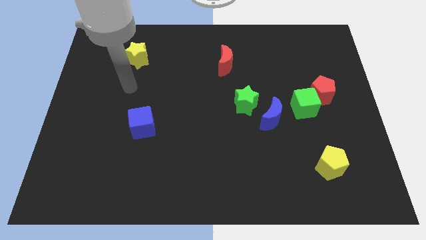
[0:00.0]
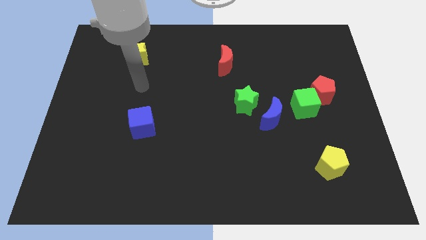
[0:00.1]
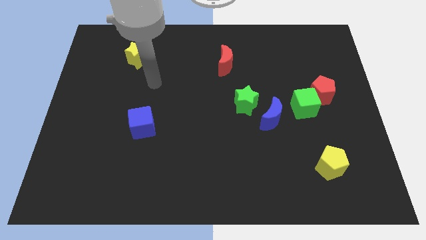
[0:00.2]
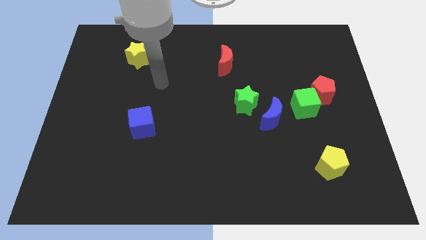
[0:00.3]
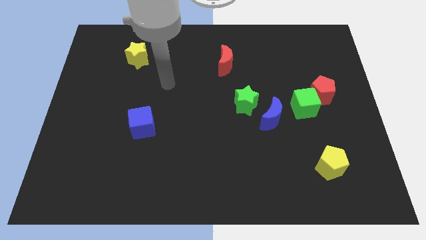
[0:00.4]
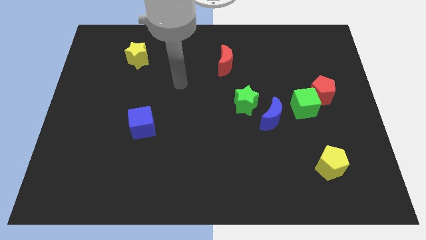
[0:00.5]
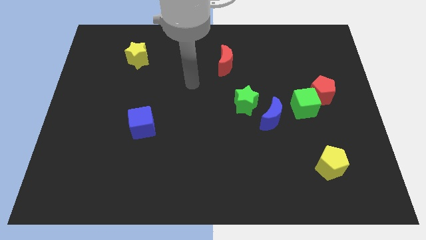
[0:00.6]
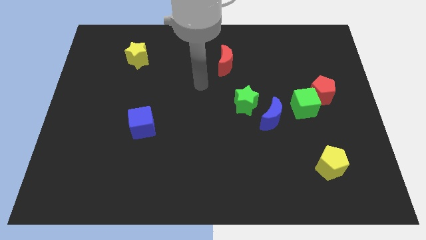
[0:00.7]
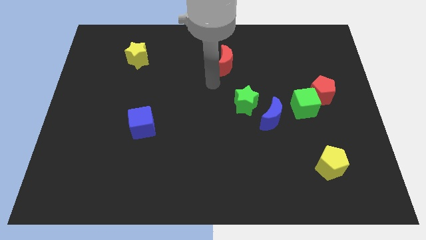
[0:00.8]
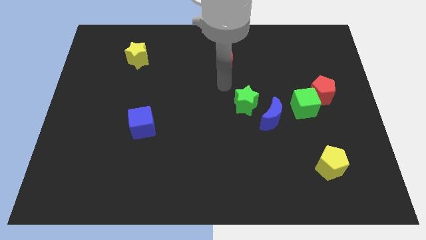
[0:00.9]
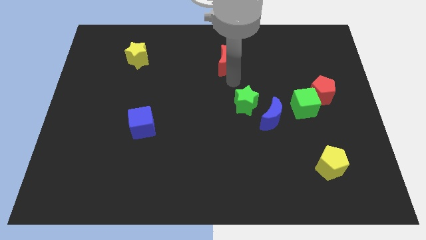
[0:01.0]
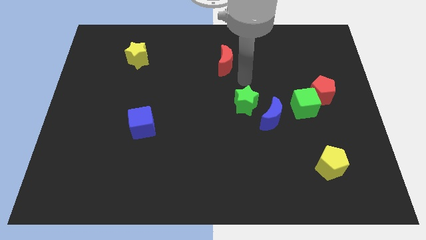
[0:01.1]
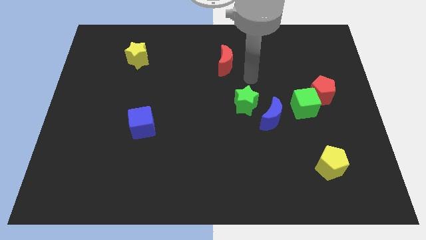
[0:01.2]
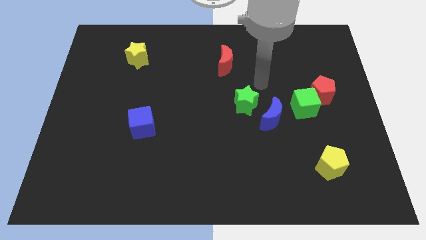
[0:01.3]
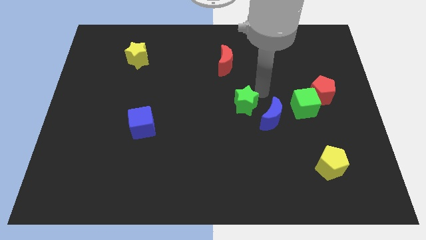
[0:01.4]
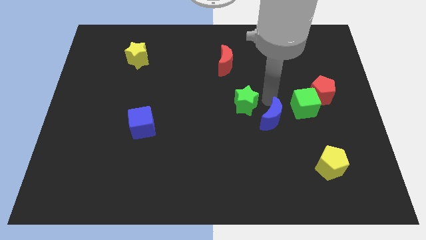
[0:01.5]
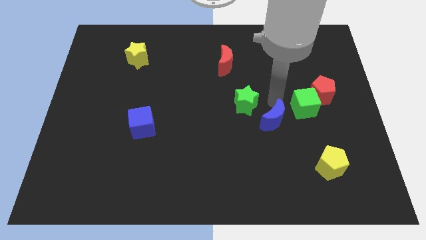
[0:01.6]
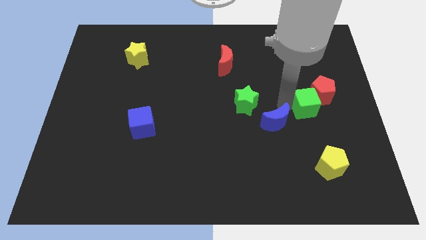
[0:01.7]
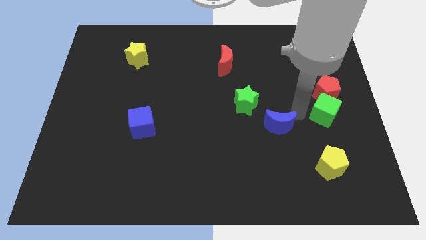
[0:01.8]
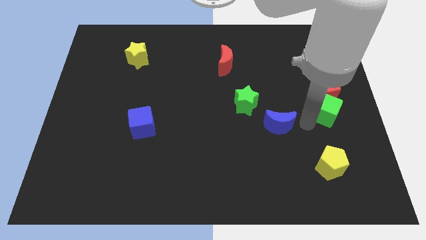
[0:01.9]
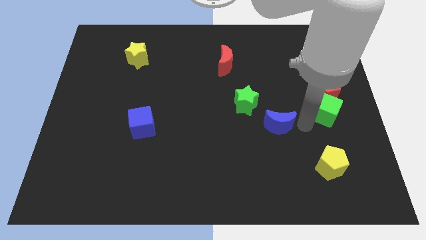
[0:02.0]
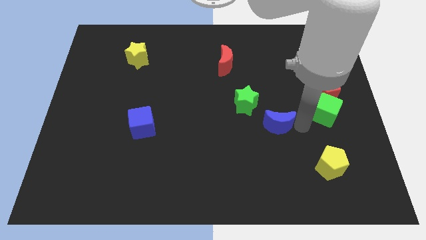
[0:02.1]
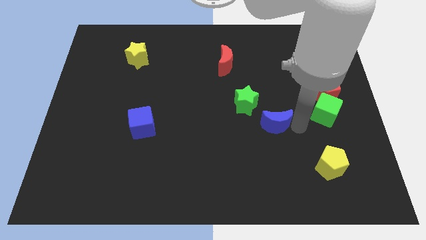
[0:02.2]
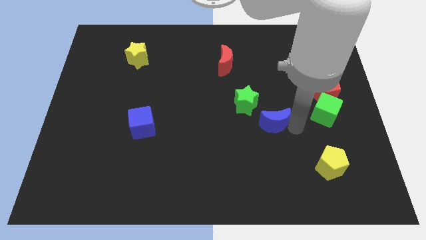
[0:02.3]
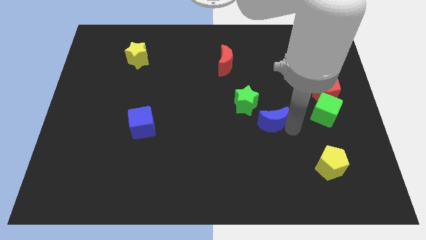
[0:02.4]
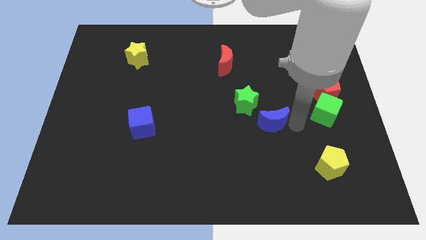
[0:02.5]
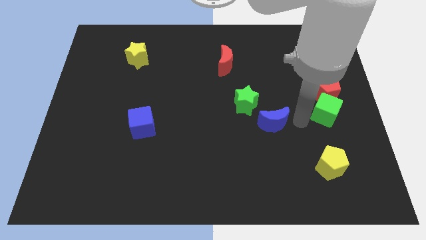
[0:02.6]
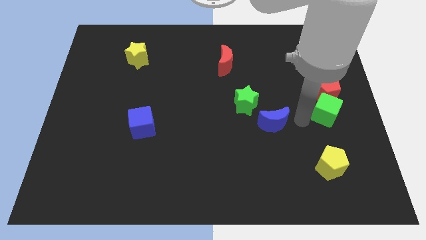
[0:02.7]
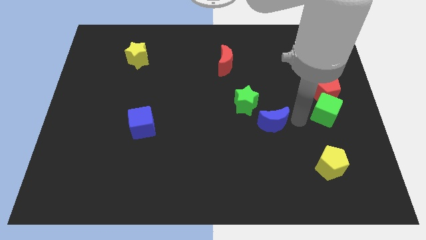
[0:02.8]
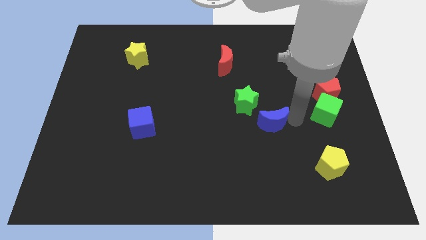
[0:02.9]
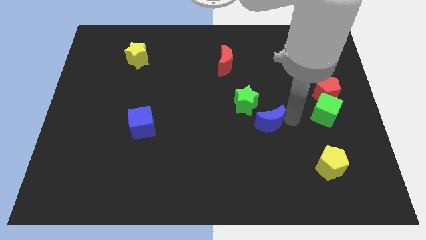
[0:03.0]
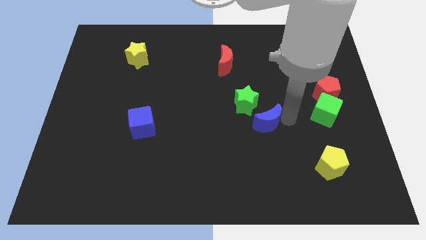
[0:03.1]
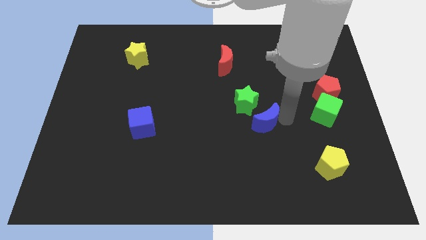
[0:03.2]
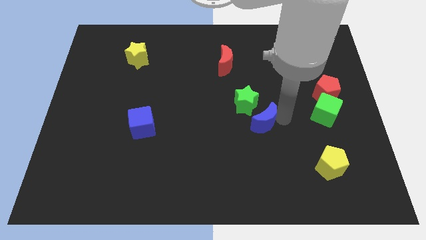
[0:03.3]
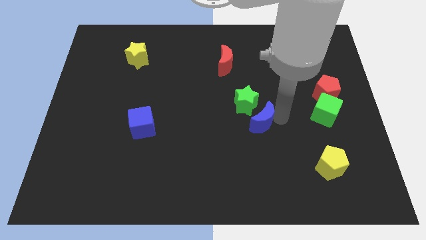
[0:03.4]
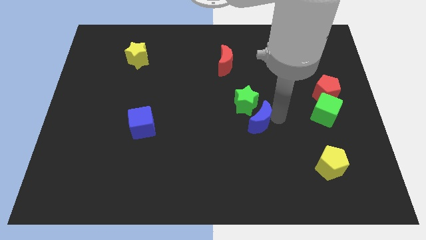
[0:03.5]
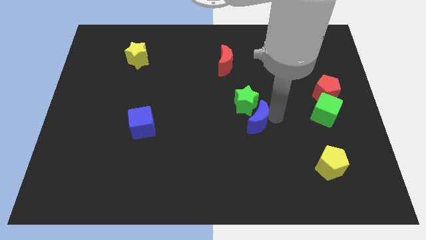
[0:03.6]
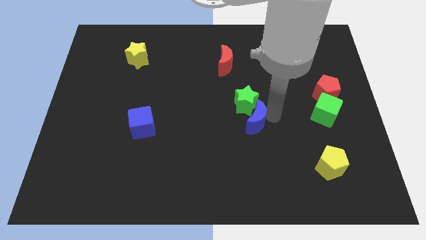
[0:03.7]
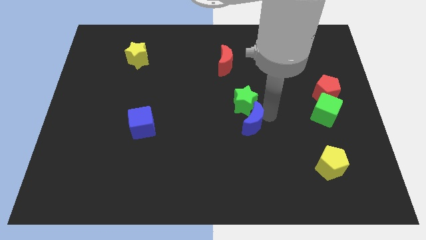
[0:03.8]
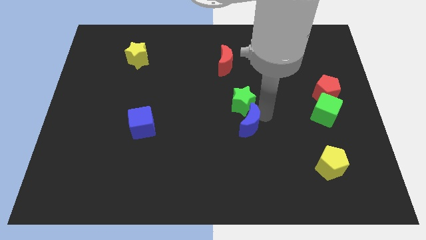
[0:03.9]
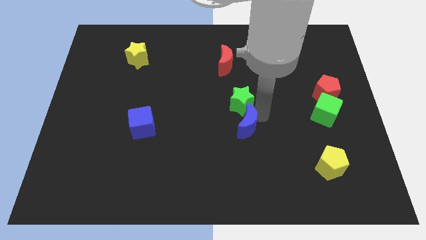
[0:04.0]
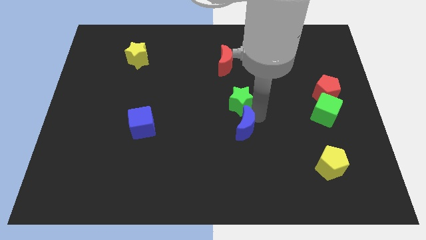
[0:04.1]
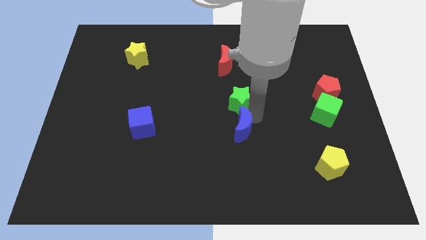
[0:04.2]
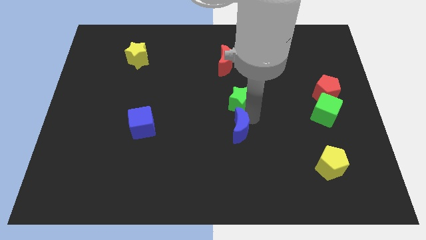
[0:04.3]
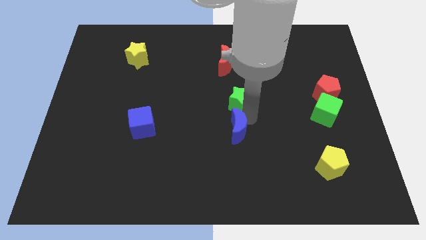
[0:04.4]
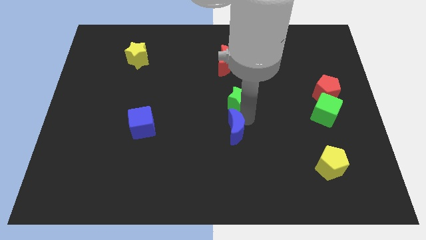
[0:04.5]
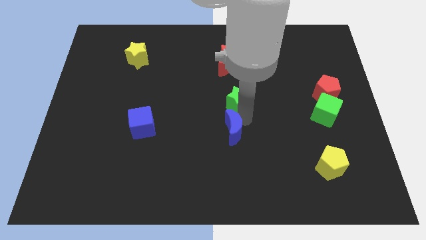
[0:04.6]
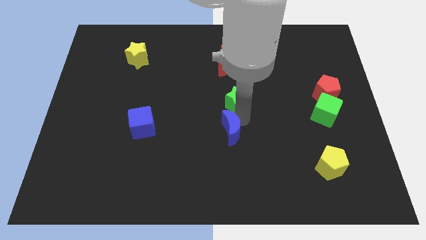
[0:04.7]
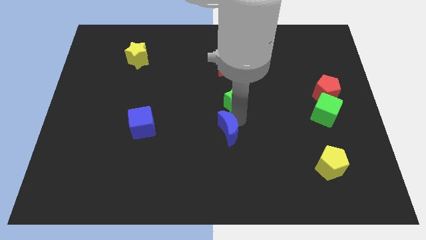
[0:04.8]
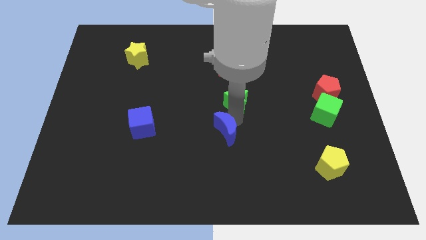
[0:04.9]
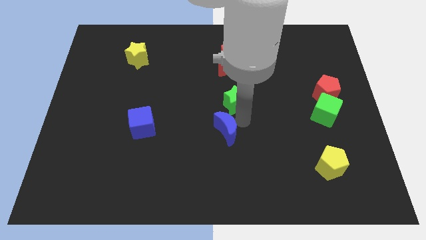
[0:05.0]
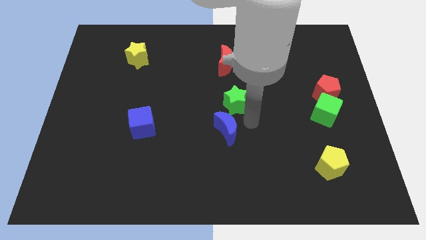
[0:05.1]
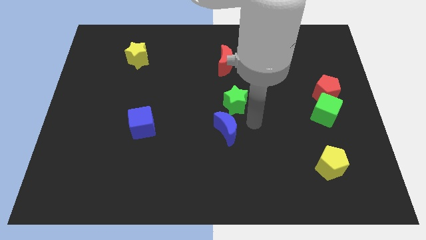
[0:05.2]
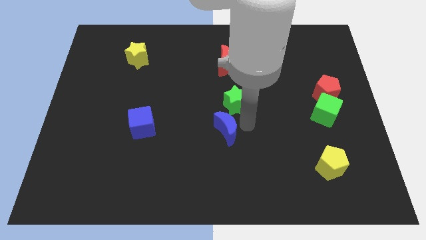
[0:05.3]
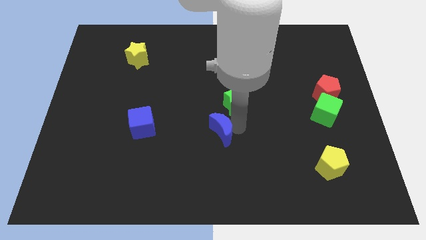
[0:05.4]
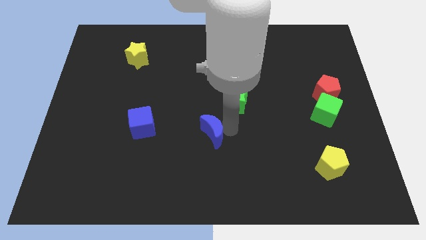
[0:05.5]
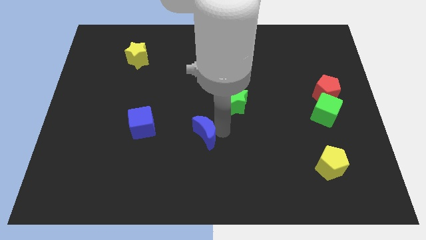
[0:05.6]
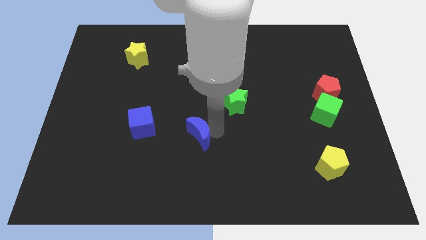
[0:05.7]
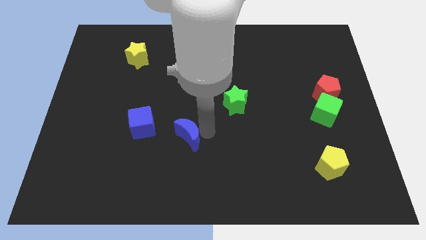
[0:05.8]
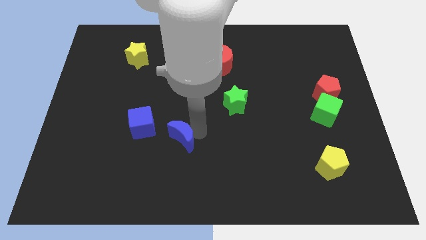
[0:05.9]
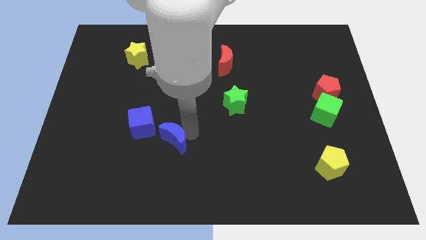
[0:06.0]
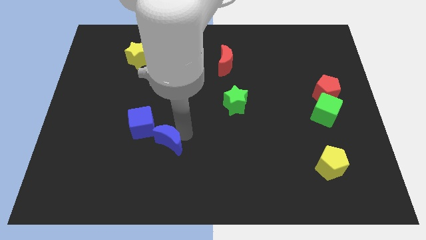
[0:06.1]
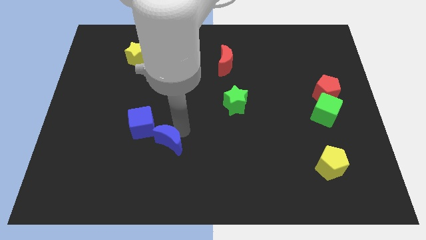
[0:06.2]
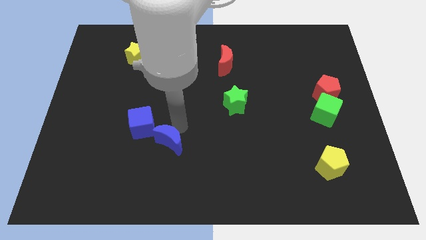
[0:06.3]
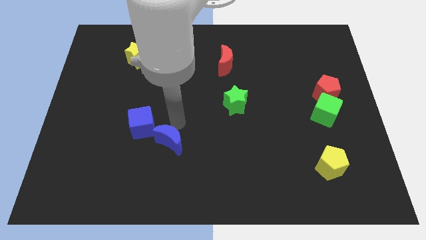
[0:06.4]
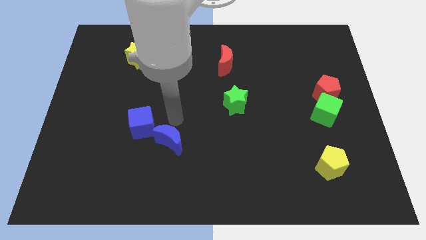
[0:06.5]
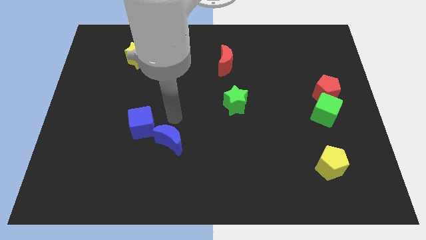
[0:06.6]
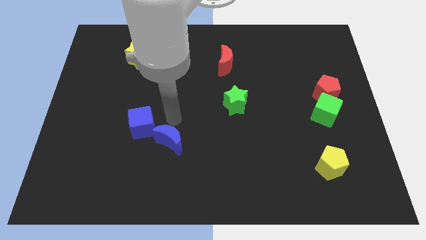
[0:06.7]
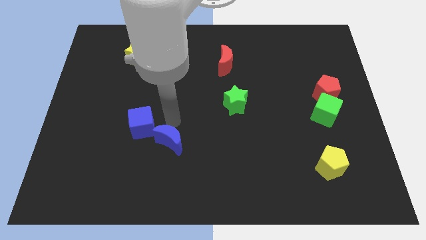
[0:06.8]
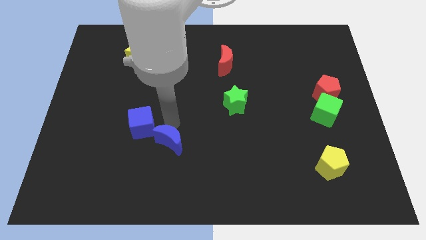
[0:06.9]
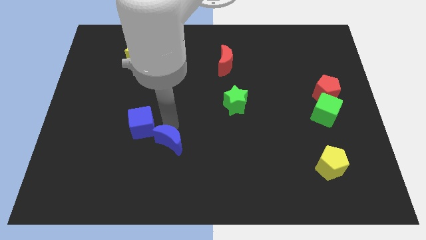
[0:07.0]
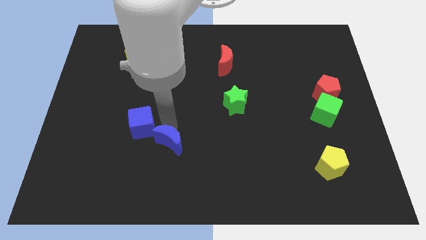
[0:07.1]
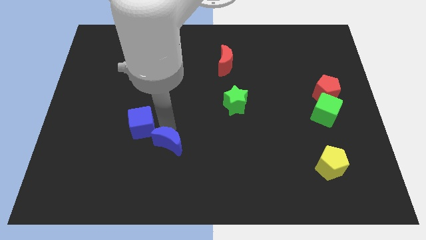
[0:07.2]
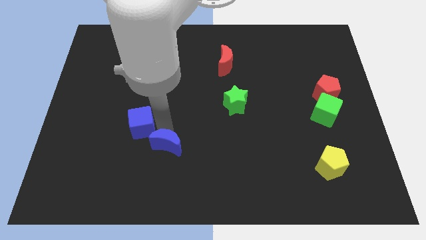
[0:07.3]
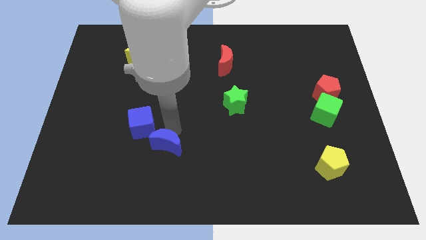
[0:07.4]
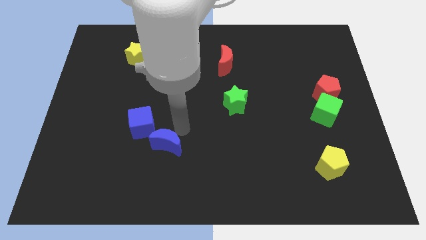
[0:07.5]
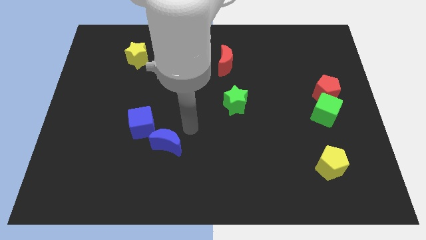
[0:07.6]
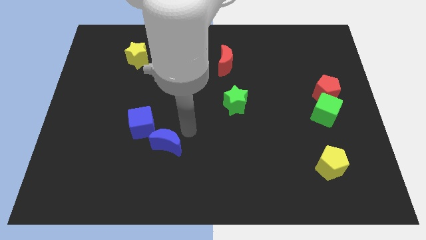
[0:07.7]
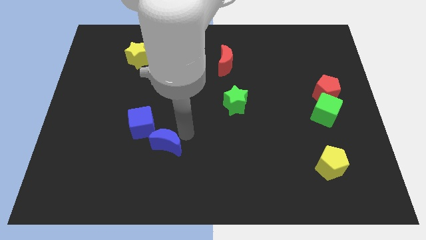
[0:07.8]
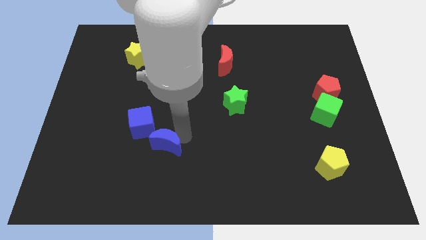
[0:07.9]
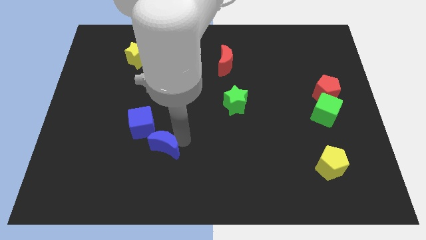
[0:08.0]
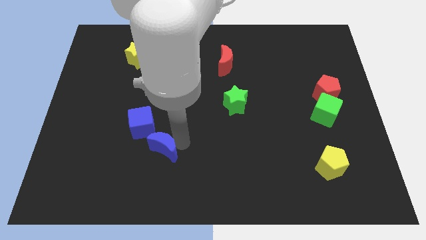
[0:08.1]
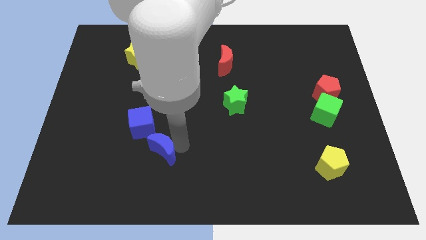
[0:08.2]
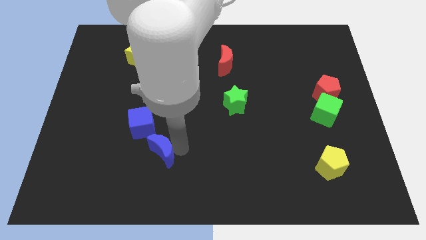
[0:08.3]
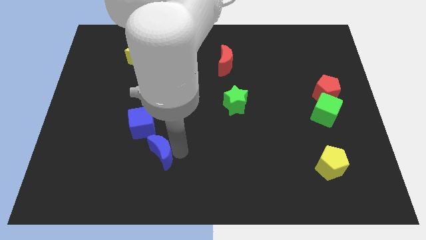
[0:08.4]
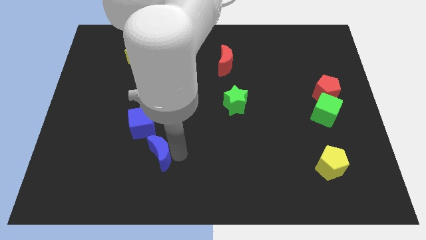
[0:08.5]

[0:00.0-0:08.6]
push the blue moon to the bottom side of the blue cube
